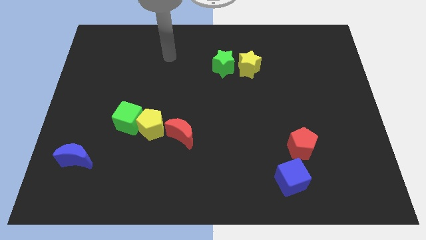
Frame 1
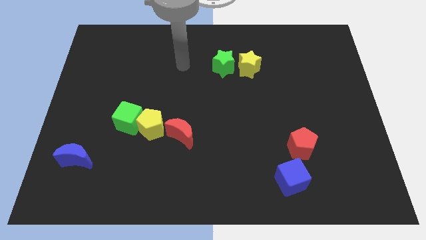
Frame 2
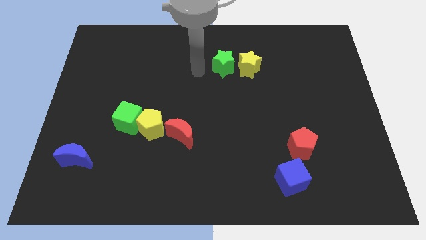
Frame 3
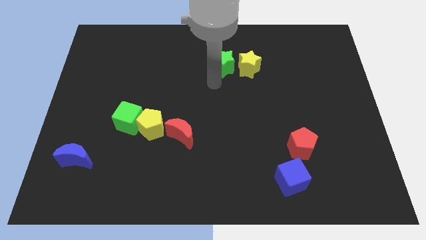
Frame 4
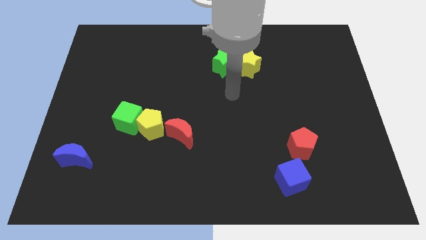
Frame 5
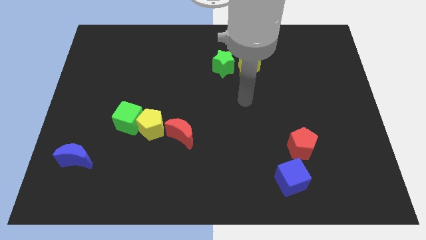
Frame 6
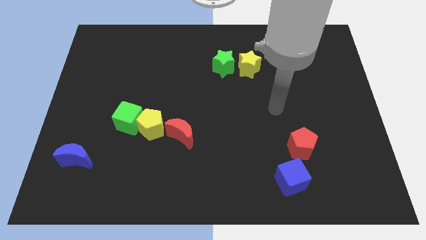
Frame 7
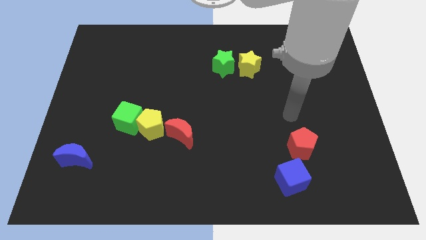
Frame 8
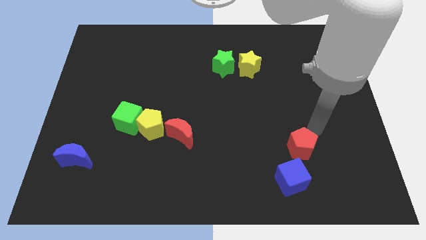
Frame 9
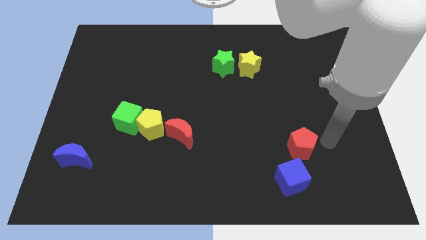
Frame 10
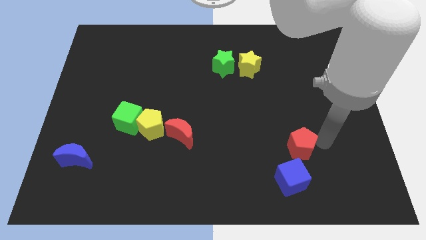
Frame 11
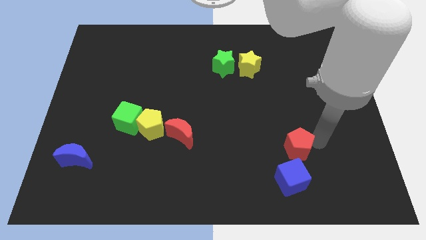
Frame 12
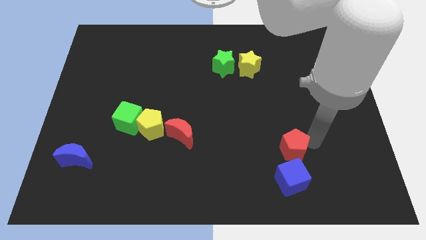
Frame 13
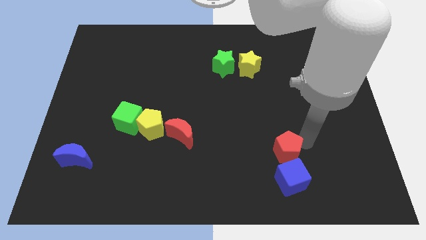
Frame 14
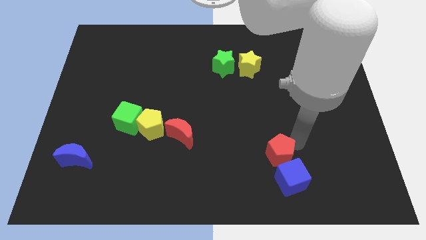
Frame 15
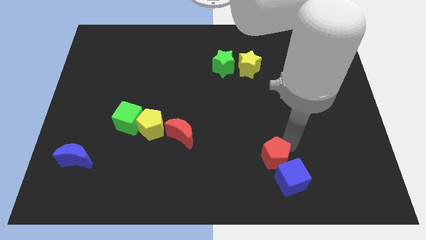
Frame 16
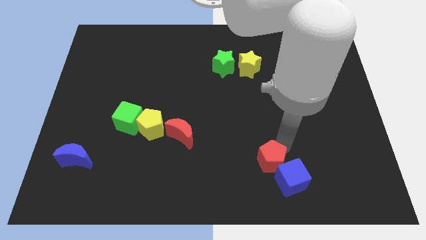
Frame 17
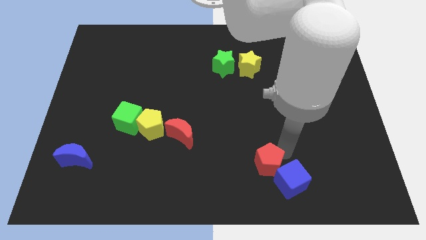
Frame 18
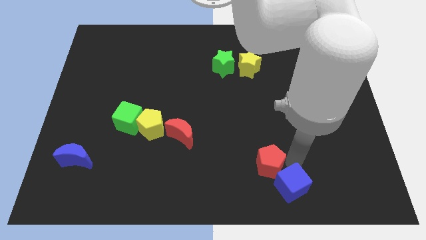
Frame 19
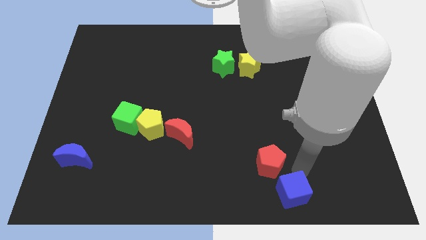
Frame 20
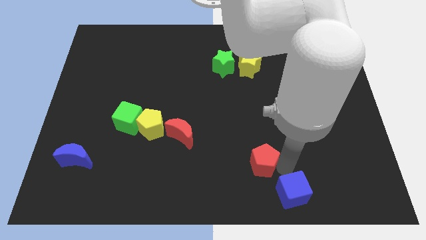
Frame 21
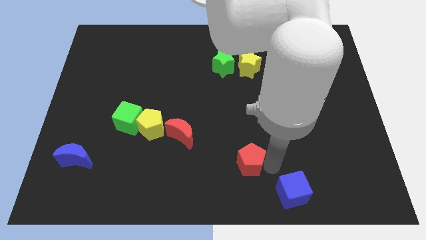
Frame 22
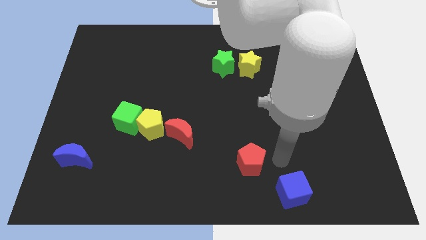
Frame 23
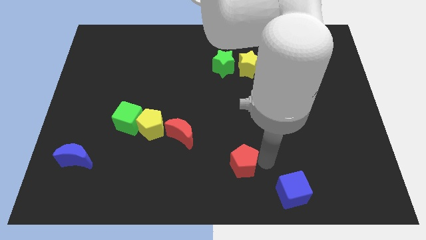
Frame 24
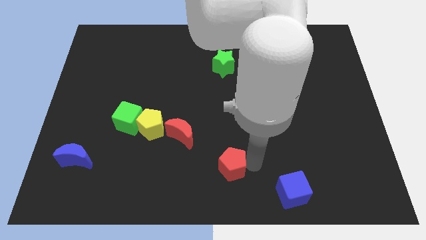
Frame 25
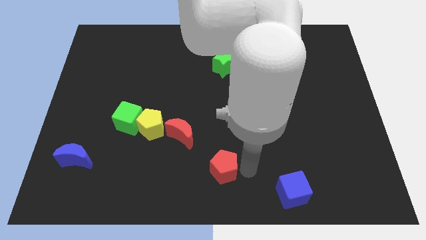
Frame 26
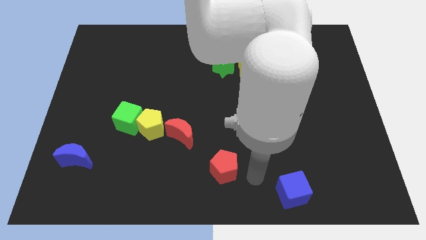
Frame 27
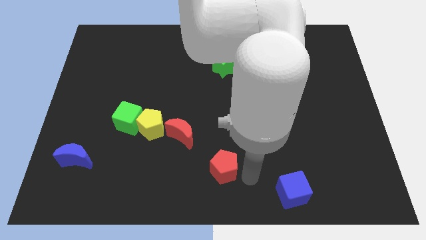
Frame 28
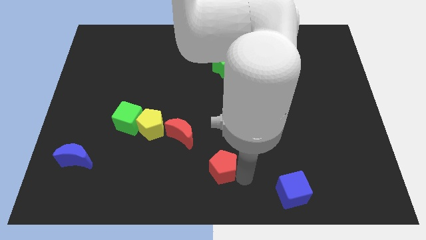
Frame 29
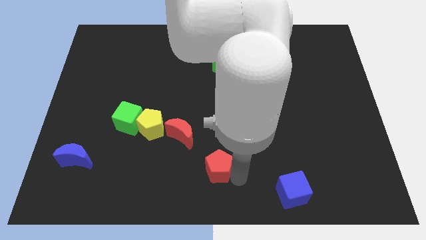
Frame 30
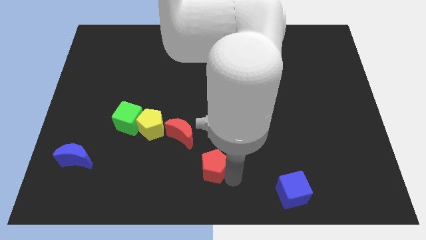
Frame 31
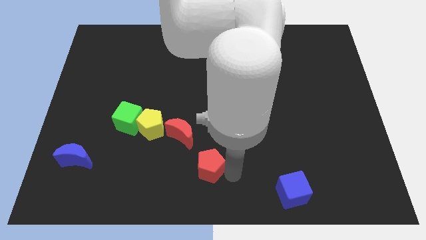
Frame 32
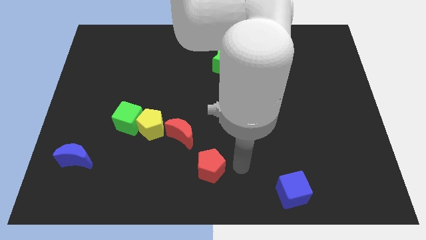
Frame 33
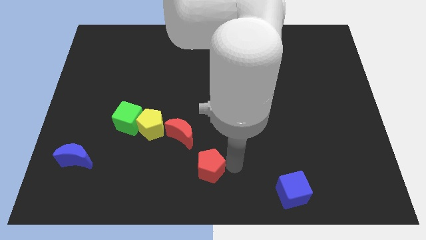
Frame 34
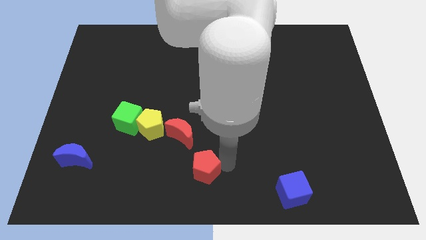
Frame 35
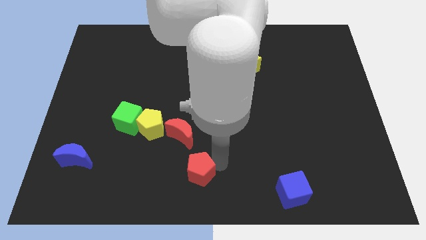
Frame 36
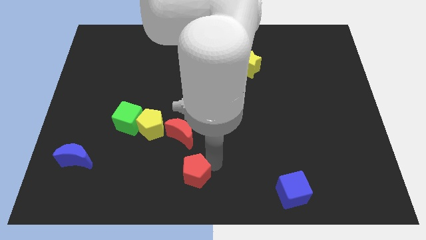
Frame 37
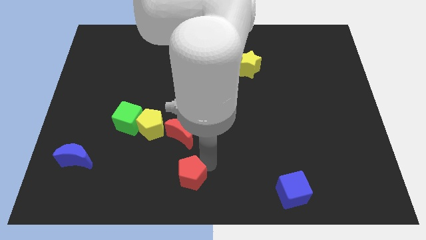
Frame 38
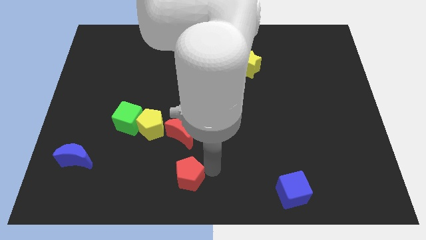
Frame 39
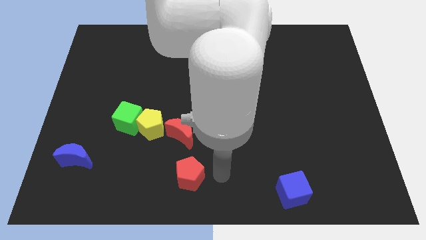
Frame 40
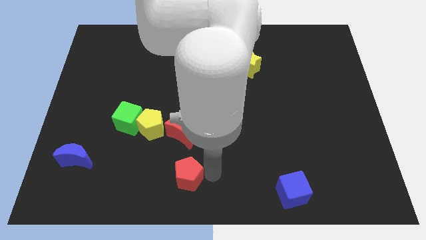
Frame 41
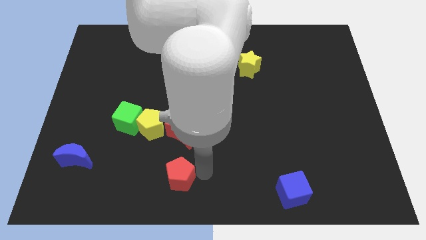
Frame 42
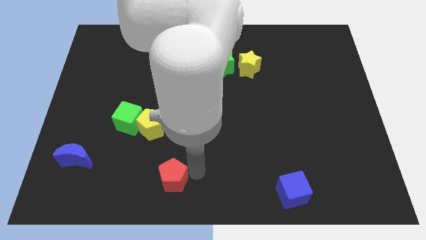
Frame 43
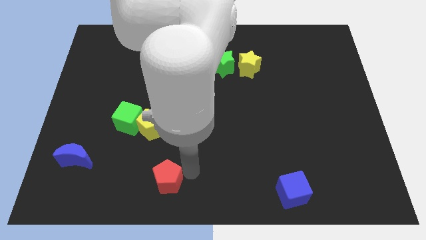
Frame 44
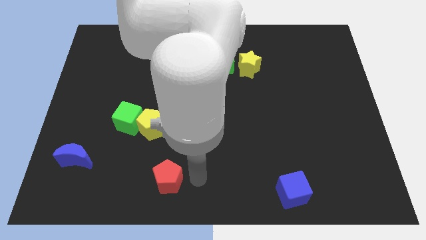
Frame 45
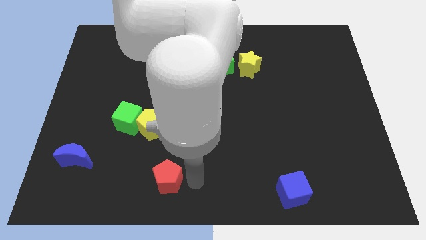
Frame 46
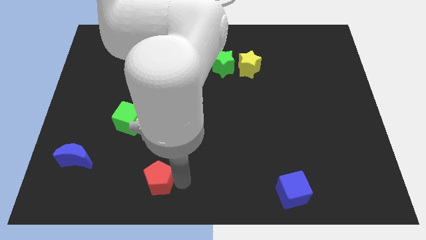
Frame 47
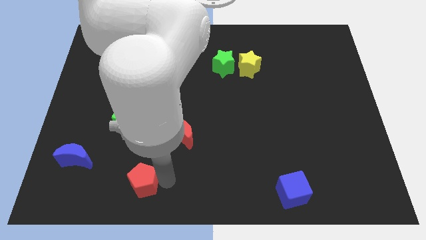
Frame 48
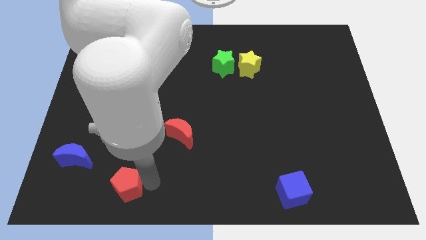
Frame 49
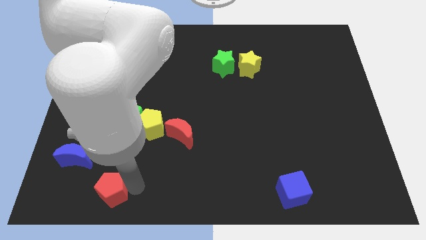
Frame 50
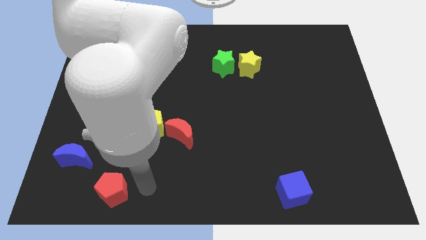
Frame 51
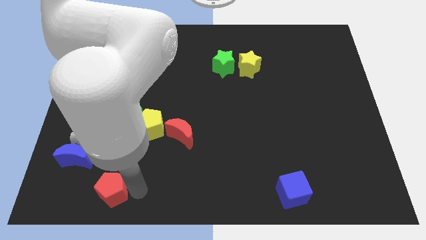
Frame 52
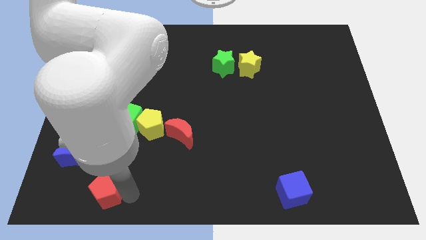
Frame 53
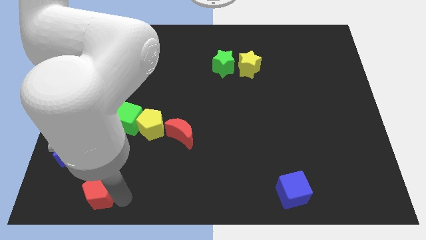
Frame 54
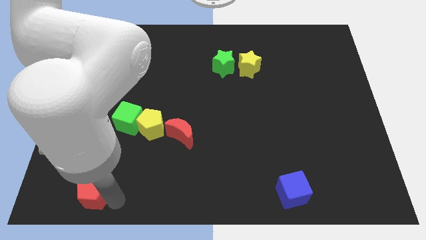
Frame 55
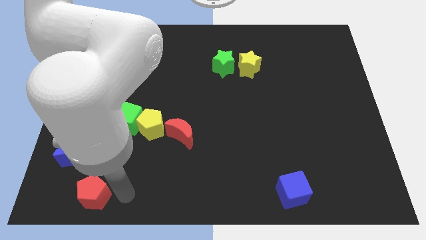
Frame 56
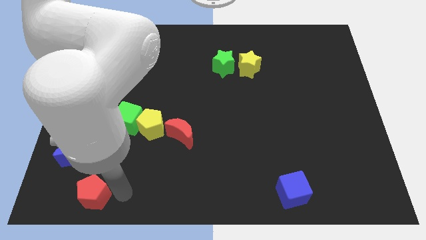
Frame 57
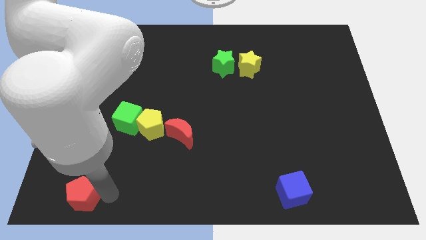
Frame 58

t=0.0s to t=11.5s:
slide the red pentagon to the bottom left

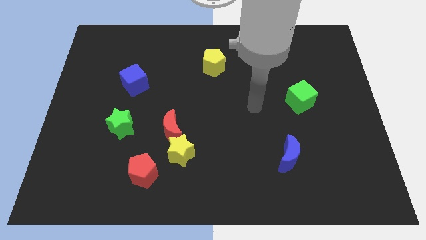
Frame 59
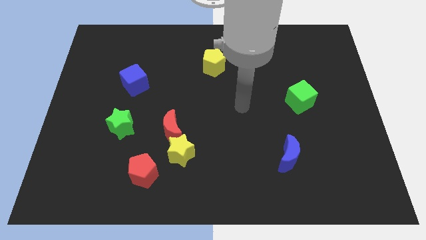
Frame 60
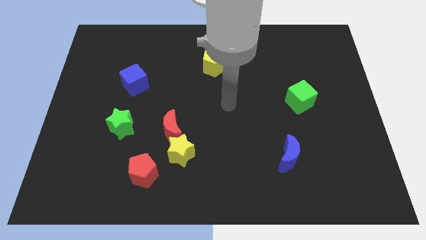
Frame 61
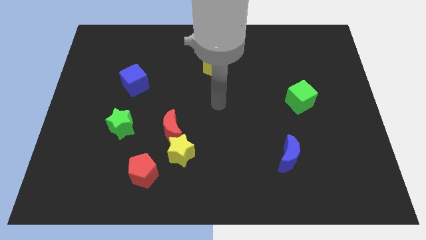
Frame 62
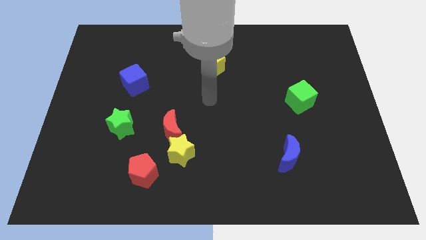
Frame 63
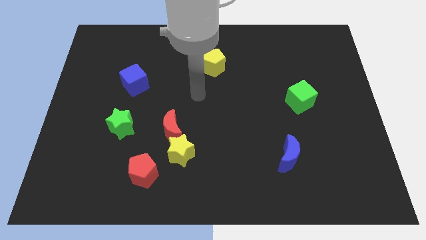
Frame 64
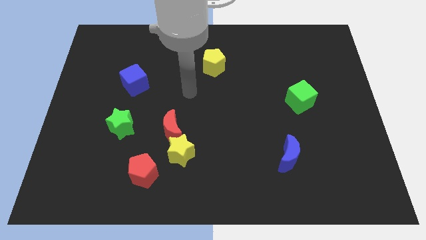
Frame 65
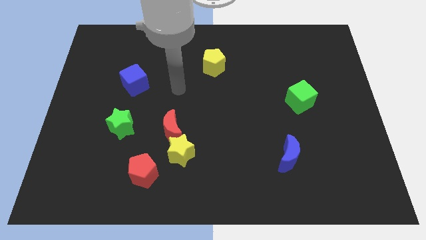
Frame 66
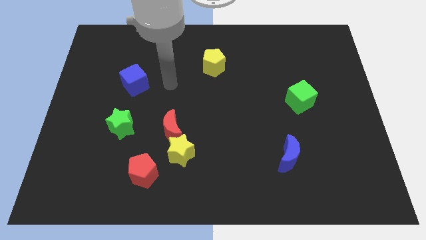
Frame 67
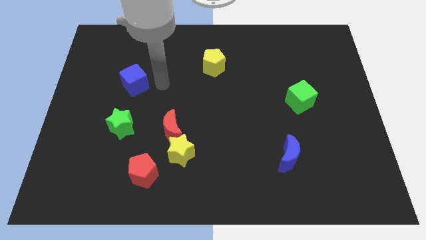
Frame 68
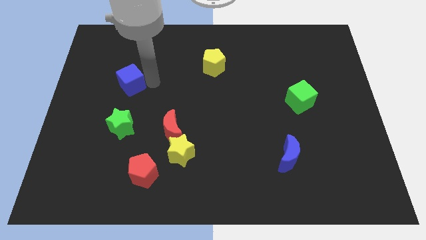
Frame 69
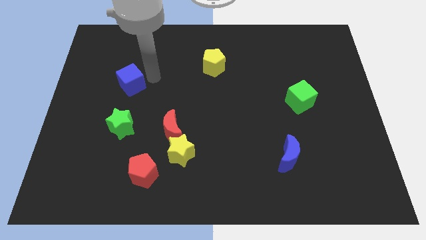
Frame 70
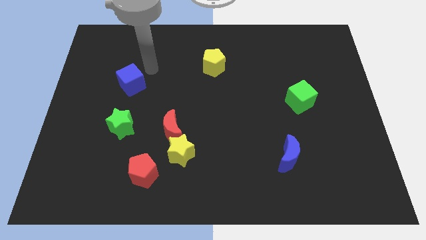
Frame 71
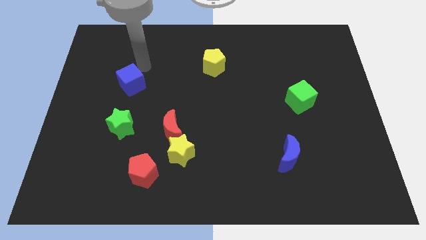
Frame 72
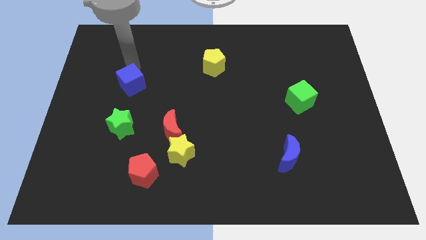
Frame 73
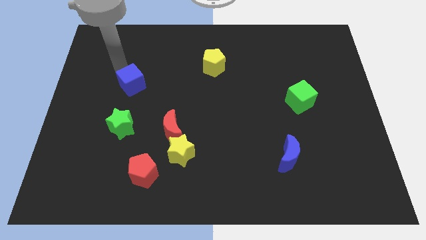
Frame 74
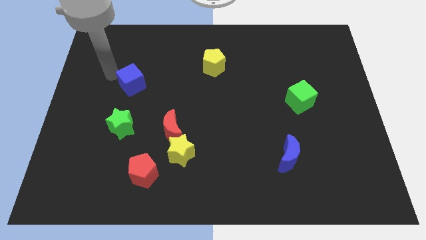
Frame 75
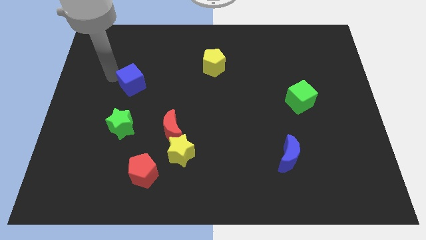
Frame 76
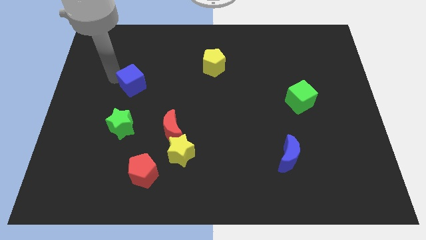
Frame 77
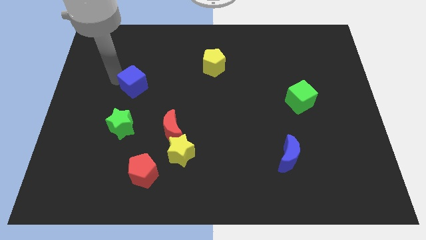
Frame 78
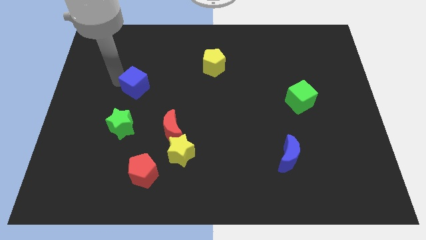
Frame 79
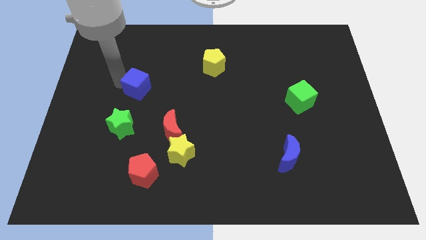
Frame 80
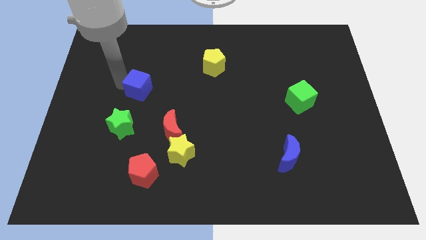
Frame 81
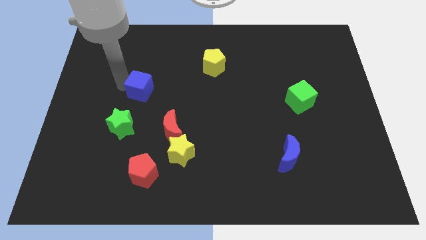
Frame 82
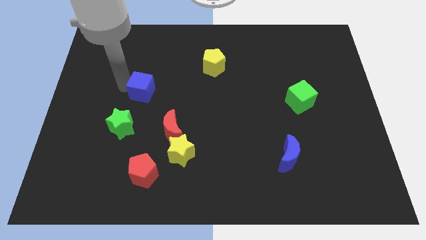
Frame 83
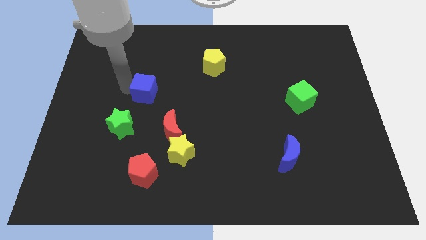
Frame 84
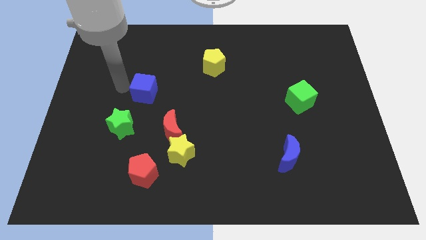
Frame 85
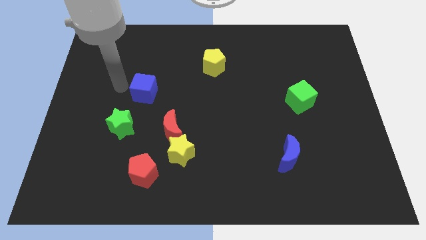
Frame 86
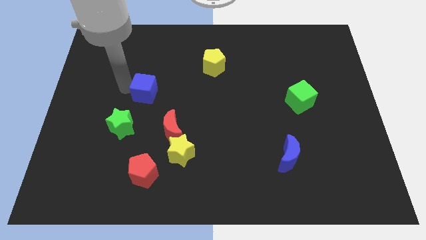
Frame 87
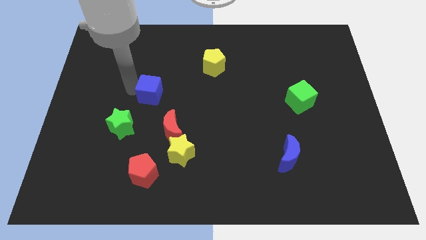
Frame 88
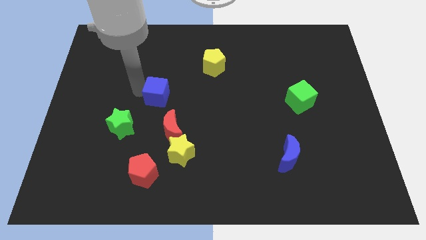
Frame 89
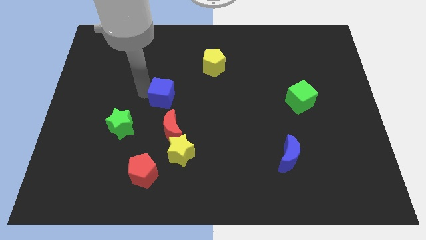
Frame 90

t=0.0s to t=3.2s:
put the blue cube to the middle
